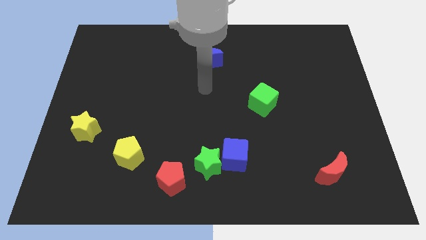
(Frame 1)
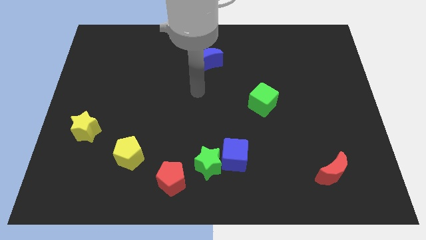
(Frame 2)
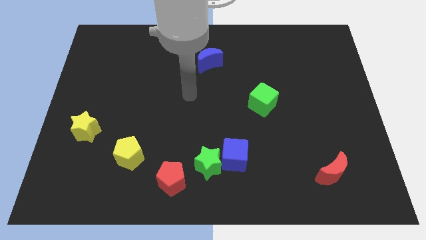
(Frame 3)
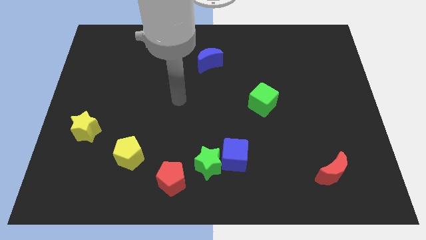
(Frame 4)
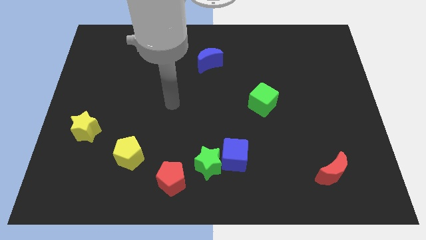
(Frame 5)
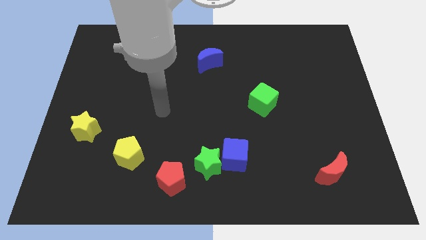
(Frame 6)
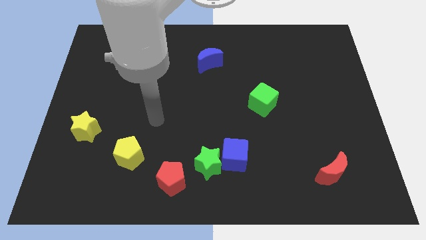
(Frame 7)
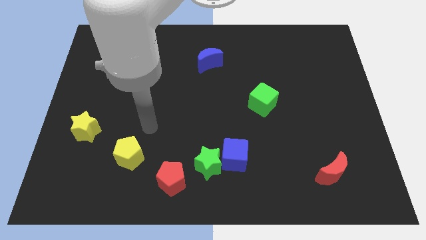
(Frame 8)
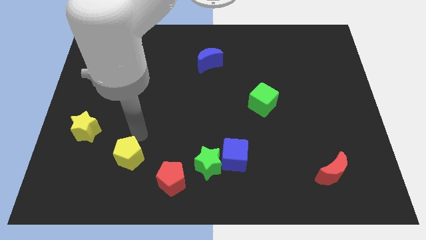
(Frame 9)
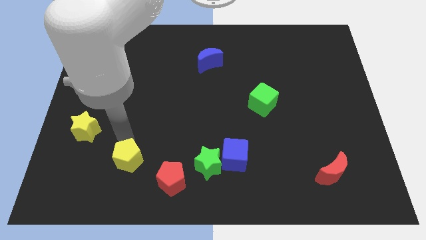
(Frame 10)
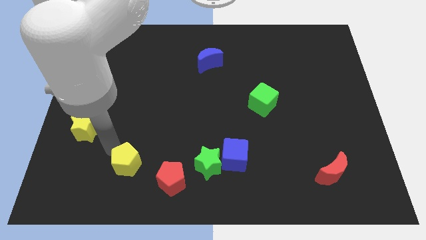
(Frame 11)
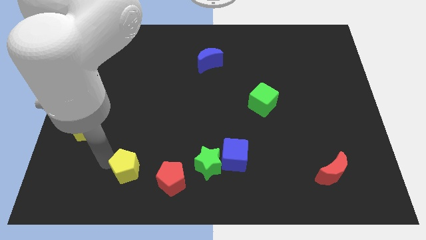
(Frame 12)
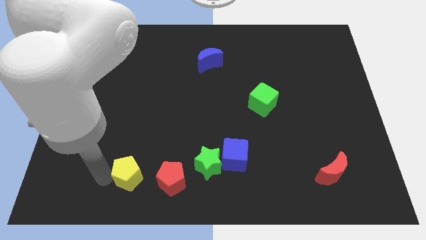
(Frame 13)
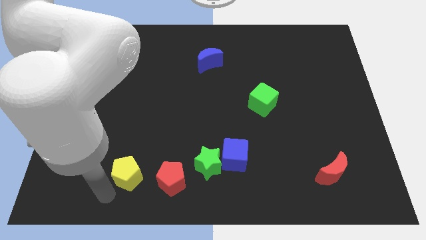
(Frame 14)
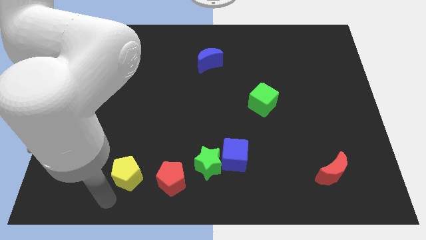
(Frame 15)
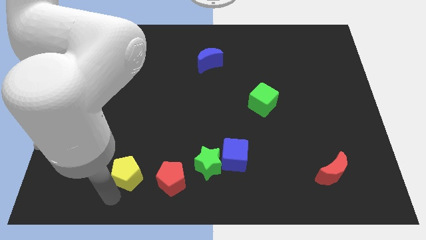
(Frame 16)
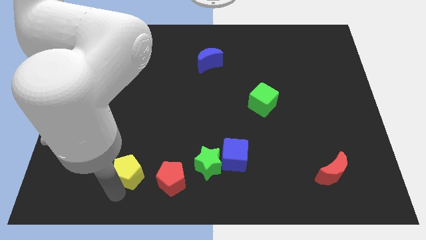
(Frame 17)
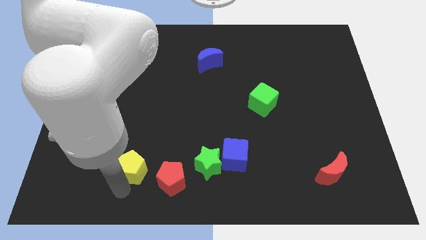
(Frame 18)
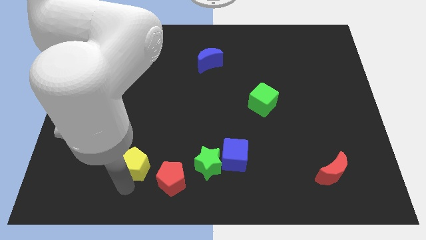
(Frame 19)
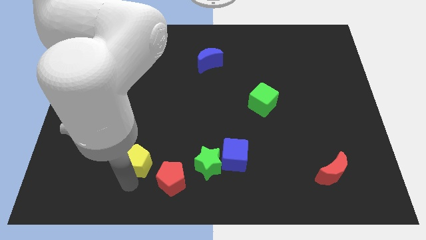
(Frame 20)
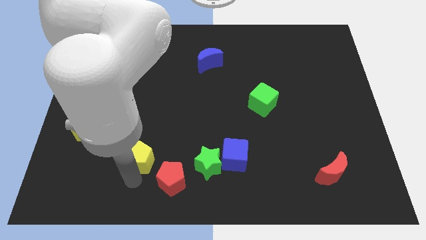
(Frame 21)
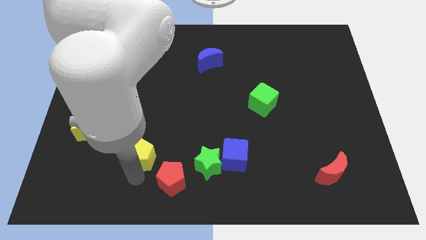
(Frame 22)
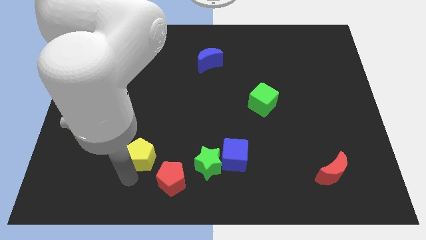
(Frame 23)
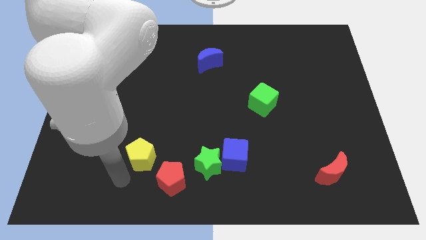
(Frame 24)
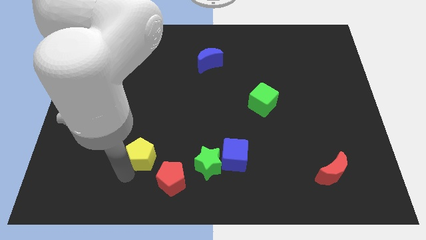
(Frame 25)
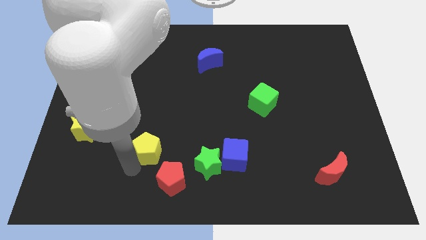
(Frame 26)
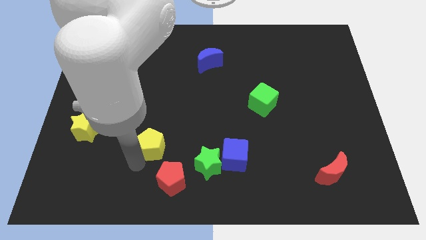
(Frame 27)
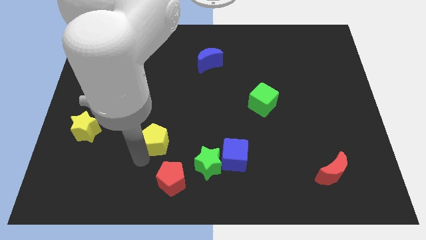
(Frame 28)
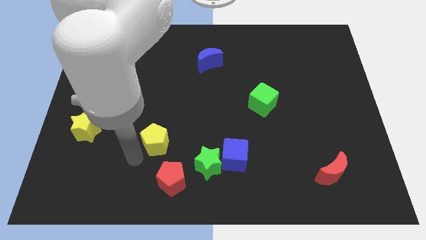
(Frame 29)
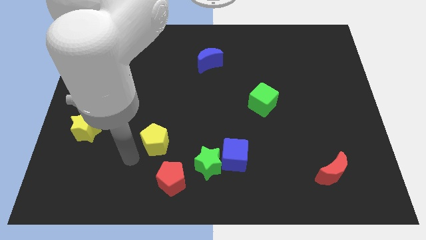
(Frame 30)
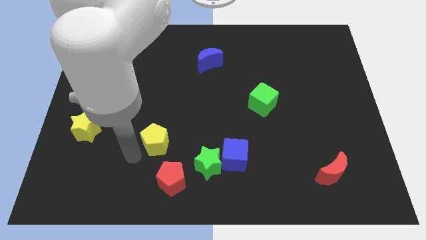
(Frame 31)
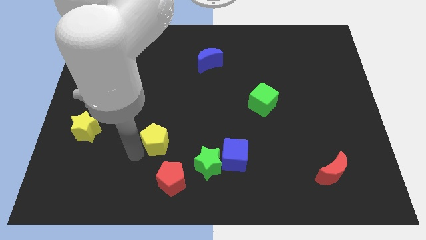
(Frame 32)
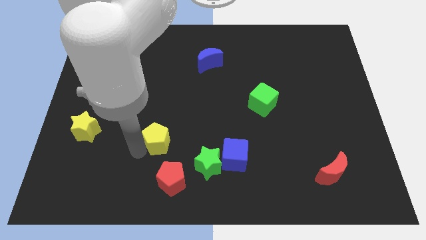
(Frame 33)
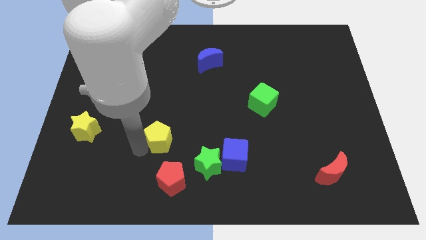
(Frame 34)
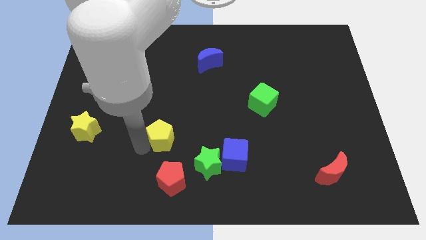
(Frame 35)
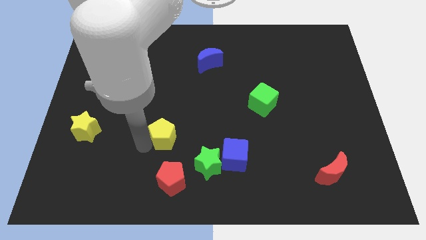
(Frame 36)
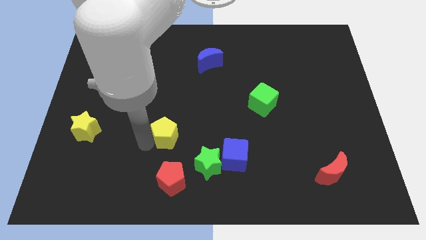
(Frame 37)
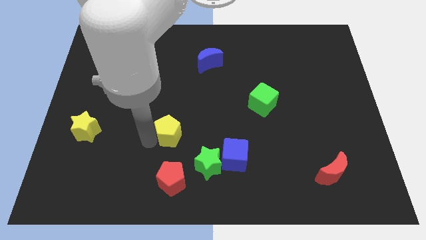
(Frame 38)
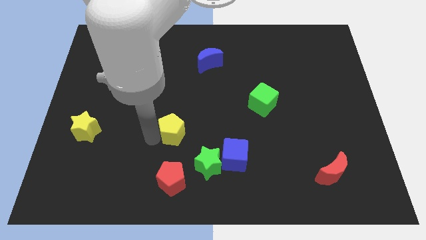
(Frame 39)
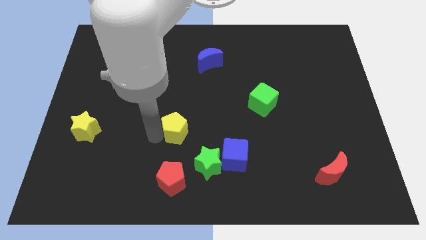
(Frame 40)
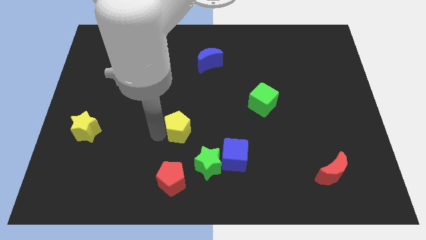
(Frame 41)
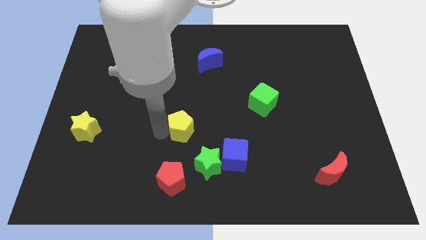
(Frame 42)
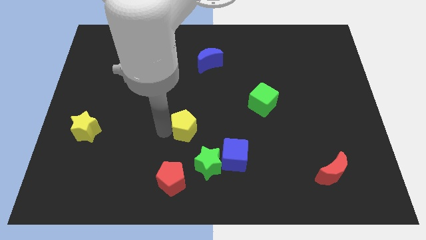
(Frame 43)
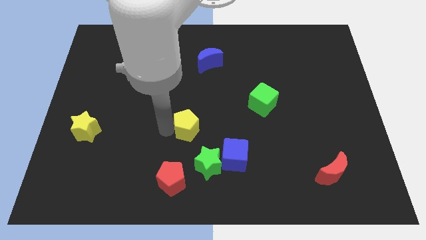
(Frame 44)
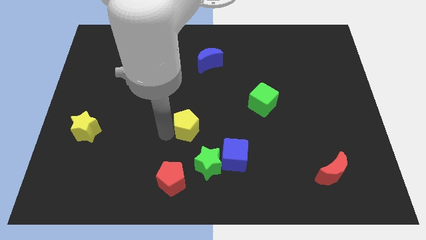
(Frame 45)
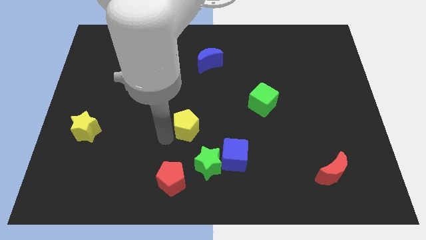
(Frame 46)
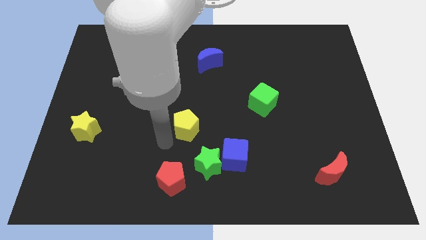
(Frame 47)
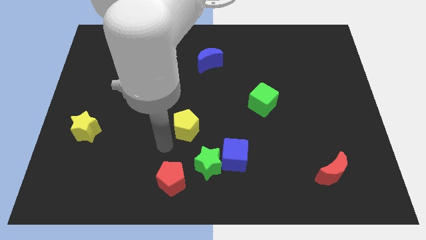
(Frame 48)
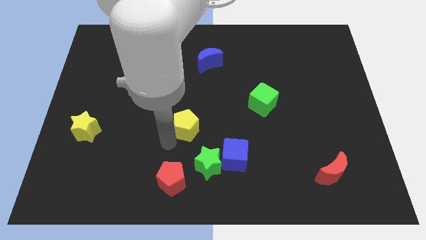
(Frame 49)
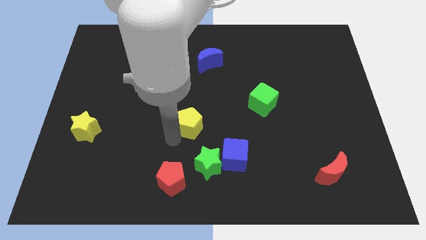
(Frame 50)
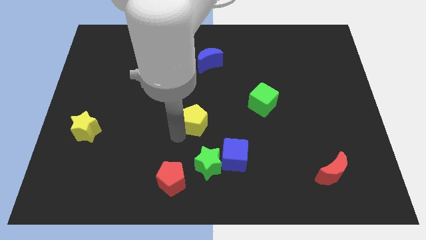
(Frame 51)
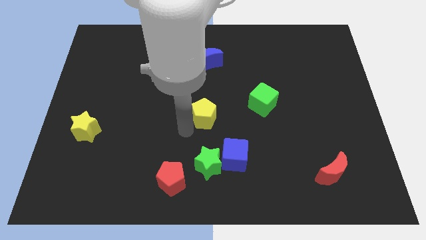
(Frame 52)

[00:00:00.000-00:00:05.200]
push the yellow pentagon to the left side of the green cube

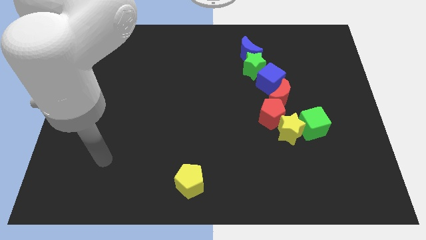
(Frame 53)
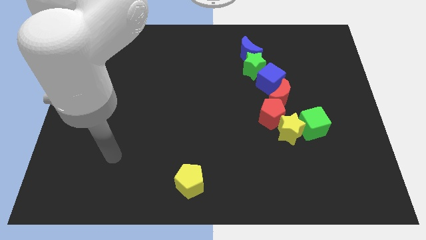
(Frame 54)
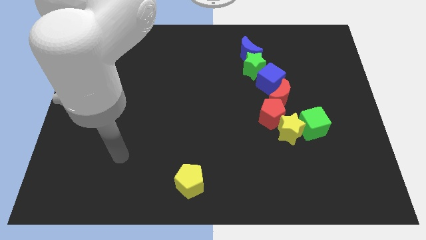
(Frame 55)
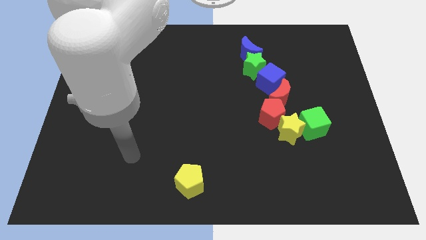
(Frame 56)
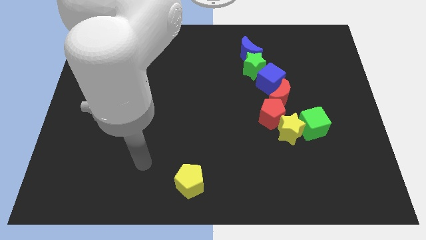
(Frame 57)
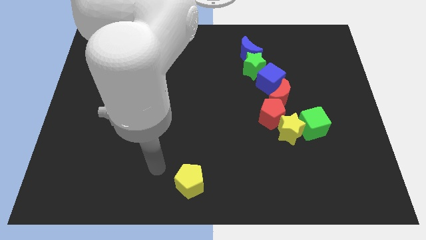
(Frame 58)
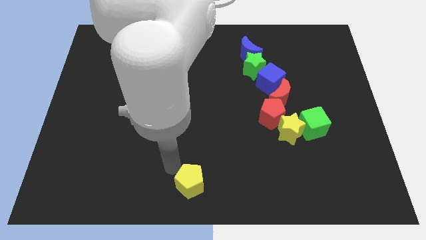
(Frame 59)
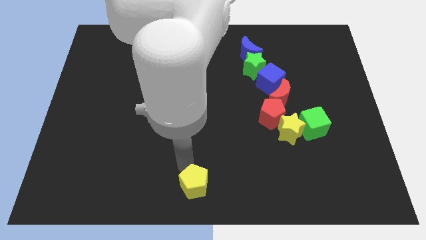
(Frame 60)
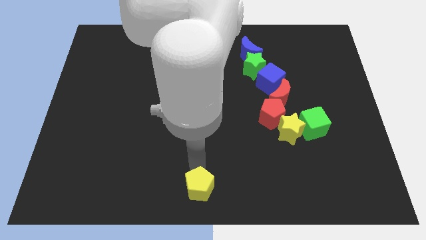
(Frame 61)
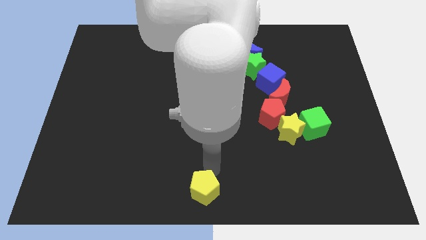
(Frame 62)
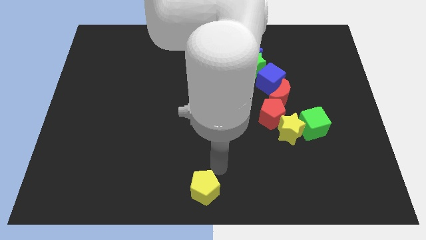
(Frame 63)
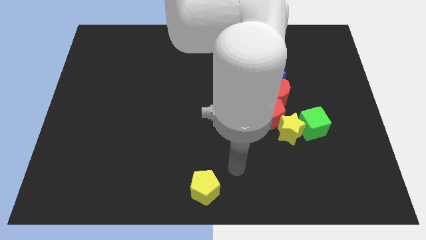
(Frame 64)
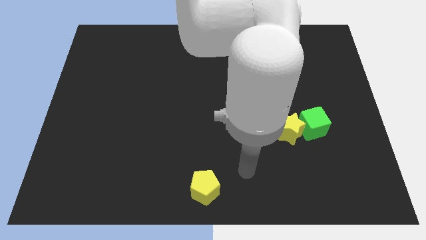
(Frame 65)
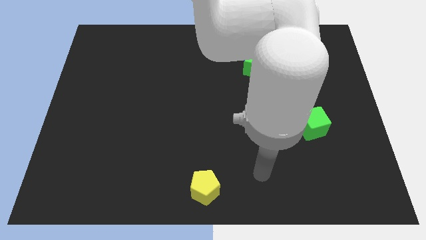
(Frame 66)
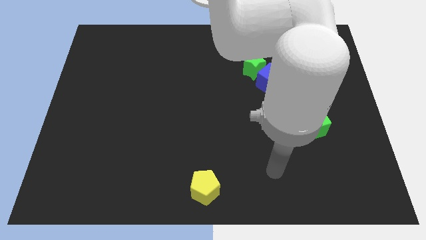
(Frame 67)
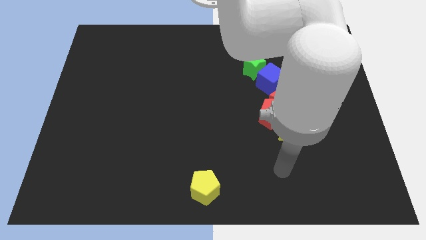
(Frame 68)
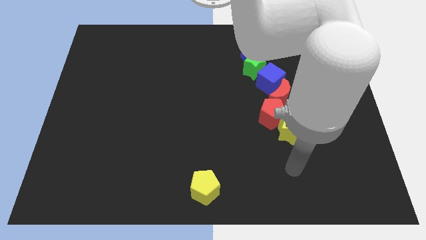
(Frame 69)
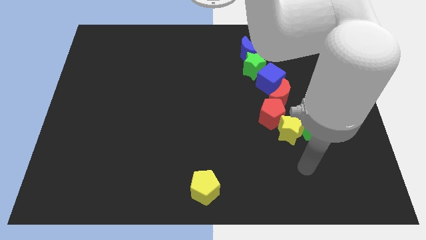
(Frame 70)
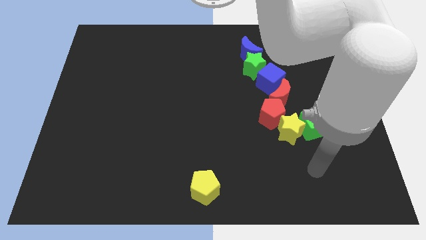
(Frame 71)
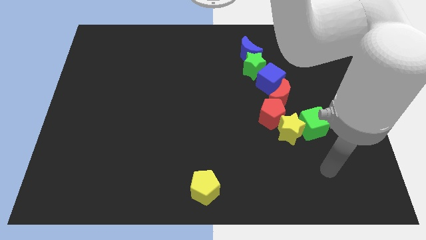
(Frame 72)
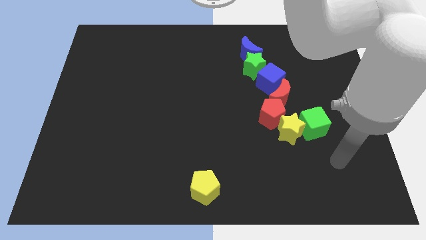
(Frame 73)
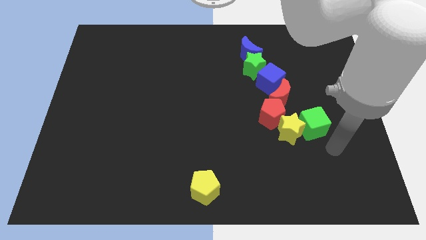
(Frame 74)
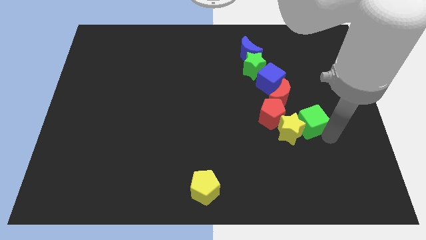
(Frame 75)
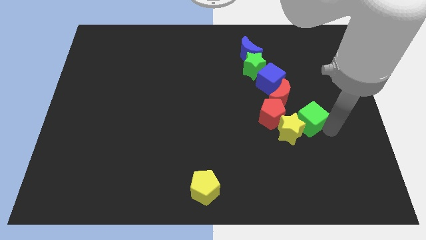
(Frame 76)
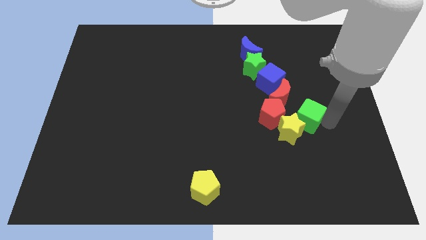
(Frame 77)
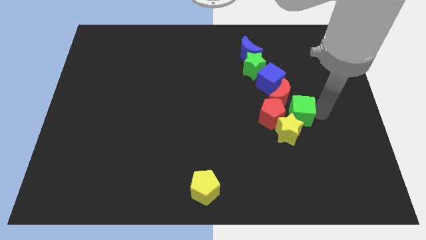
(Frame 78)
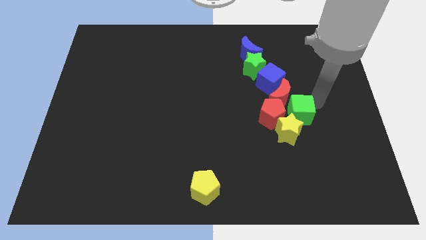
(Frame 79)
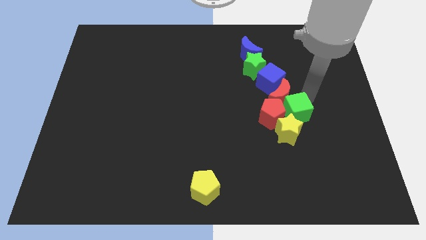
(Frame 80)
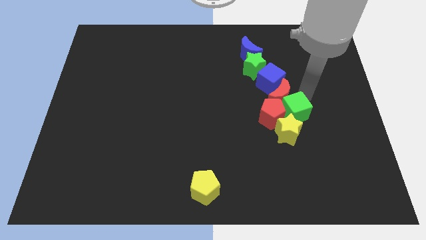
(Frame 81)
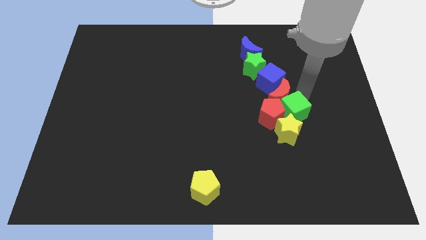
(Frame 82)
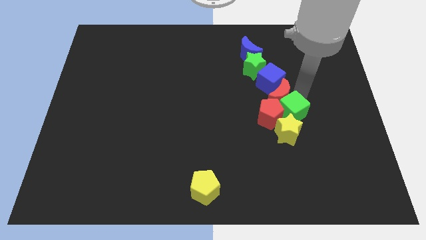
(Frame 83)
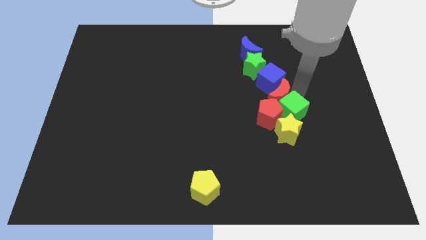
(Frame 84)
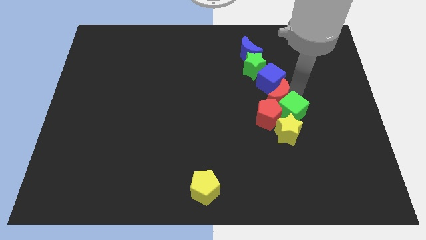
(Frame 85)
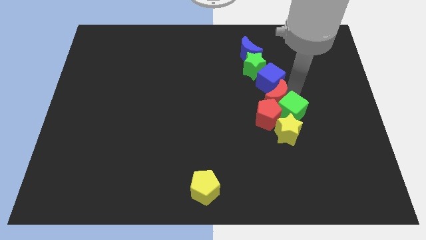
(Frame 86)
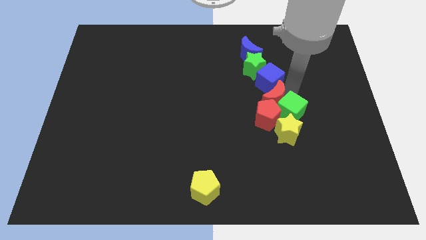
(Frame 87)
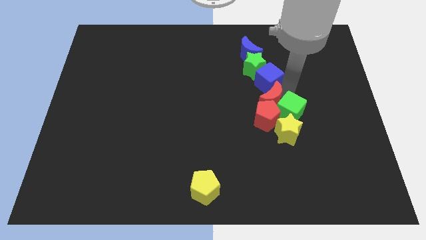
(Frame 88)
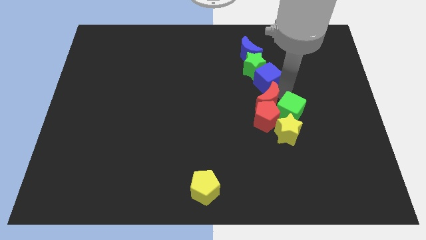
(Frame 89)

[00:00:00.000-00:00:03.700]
slide the red moon diagonally up and to the left of the red pentagon
